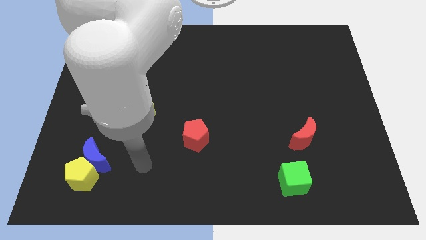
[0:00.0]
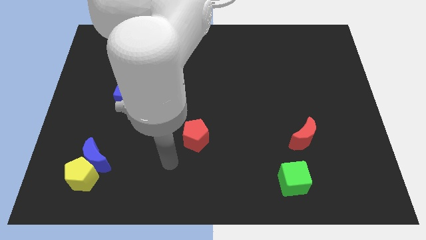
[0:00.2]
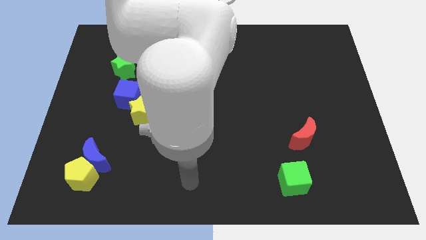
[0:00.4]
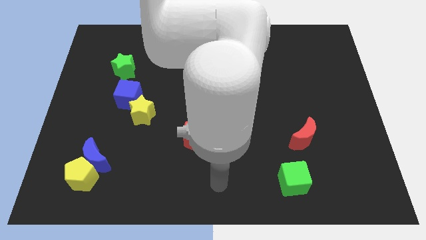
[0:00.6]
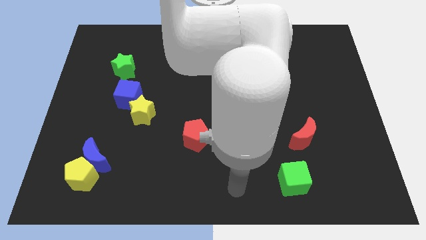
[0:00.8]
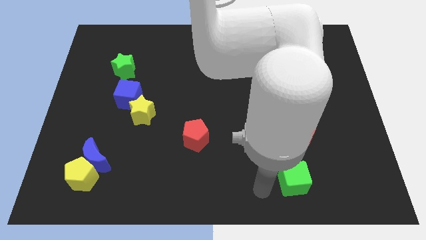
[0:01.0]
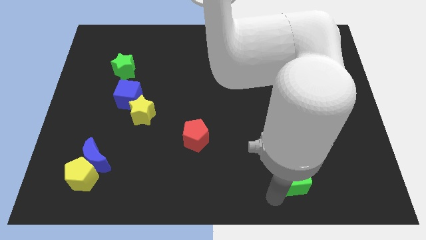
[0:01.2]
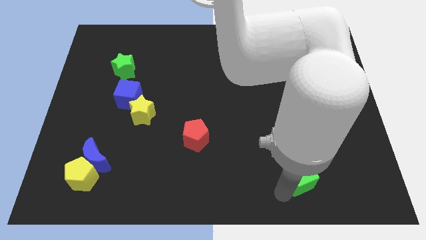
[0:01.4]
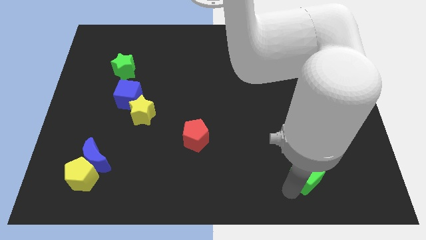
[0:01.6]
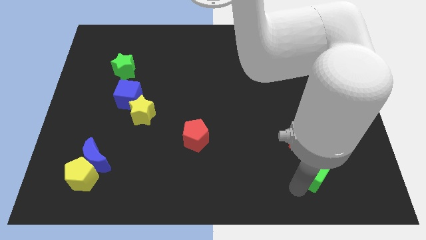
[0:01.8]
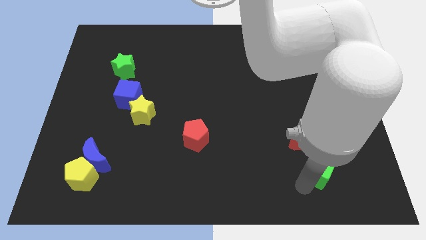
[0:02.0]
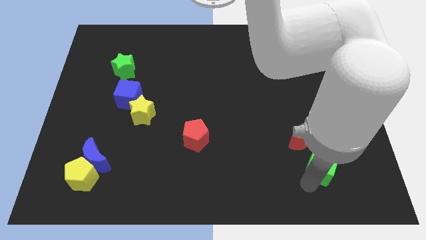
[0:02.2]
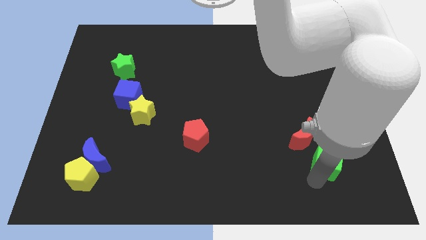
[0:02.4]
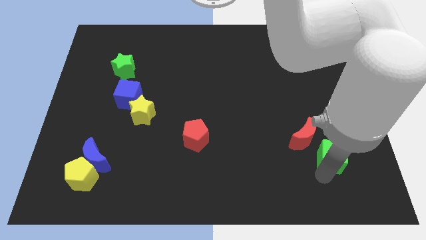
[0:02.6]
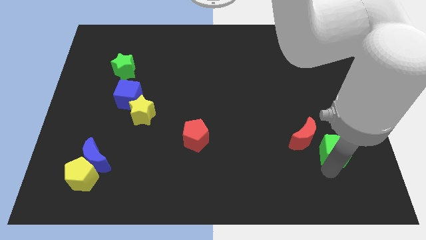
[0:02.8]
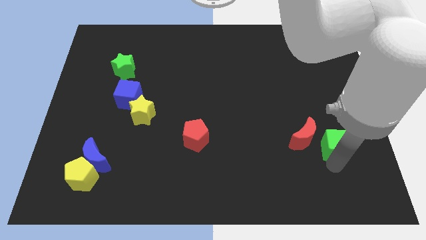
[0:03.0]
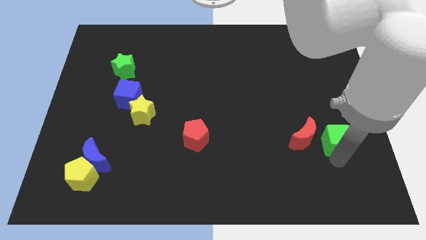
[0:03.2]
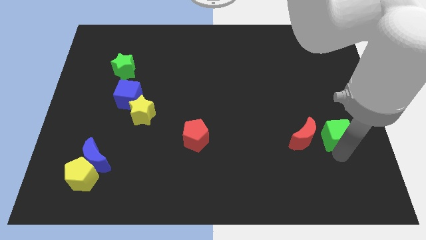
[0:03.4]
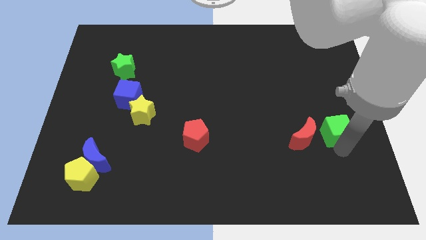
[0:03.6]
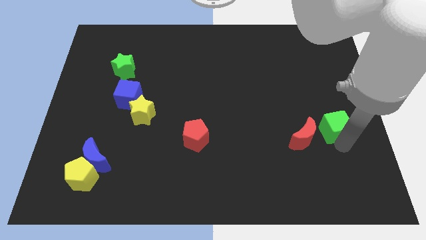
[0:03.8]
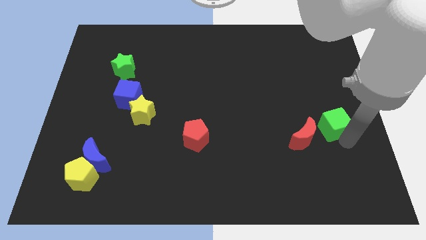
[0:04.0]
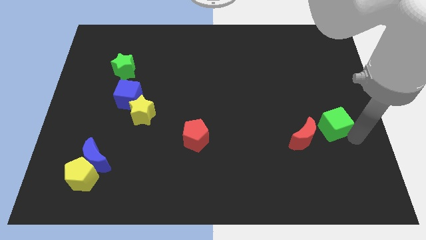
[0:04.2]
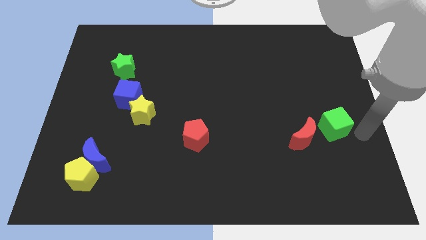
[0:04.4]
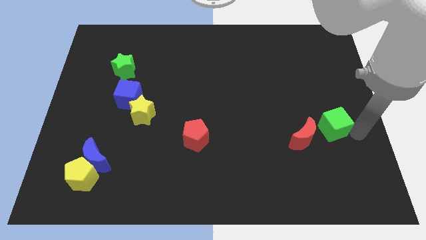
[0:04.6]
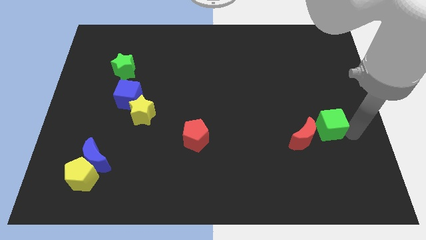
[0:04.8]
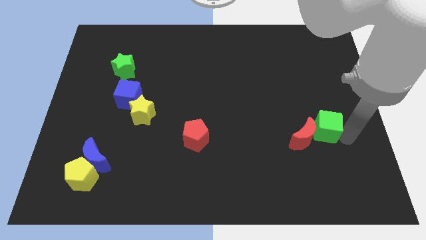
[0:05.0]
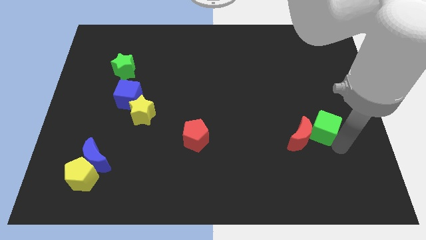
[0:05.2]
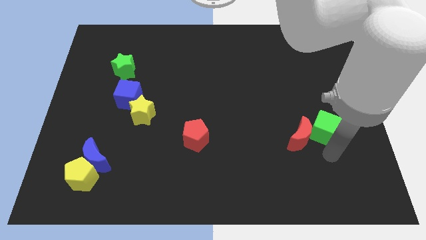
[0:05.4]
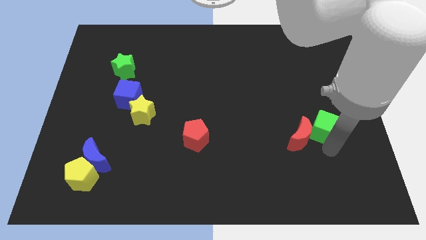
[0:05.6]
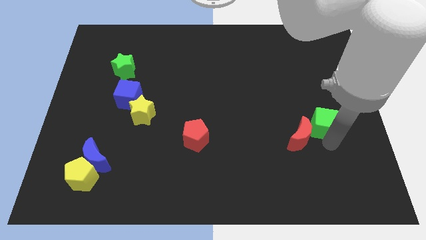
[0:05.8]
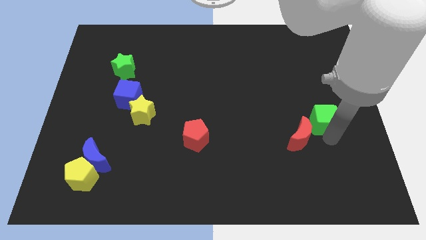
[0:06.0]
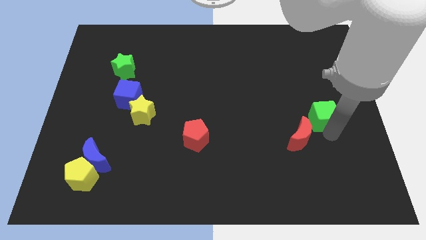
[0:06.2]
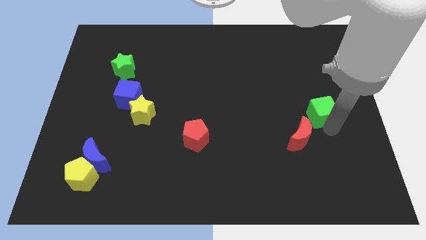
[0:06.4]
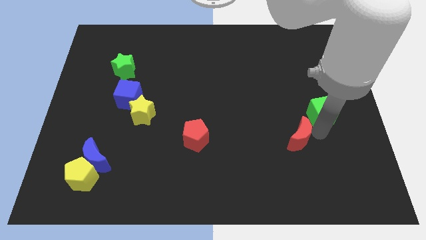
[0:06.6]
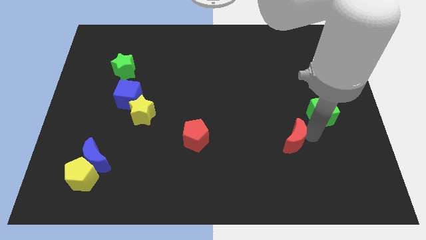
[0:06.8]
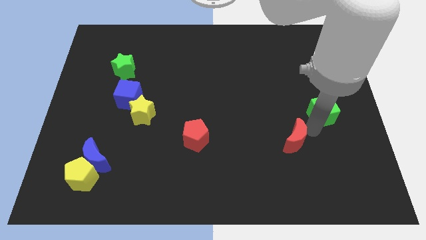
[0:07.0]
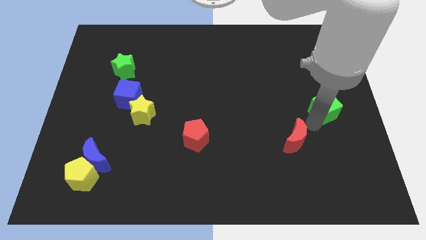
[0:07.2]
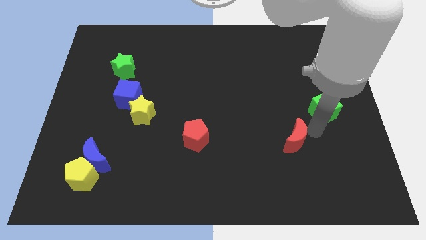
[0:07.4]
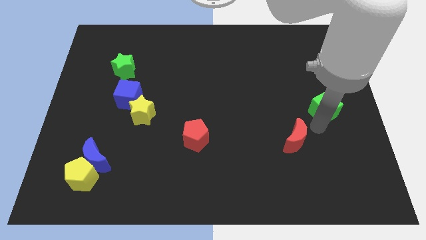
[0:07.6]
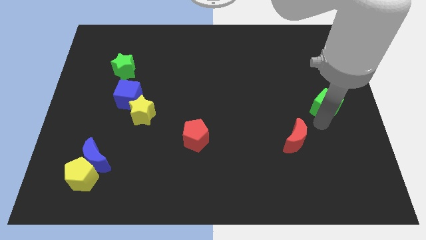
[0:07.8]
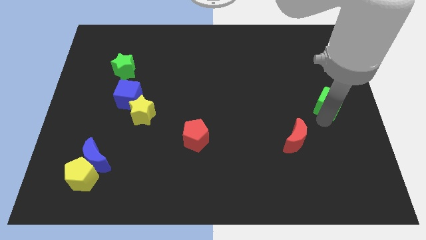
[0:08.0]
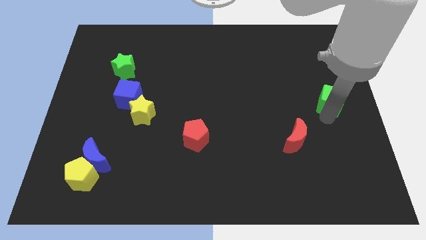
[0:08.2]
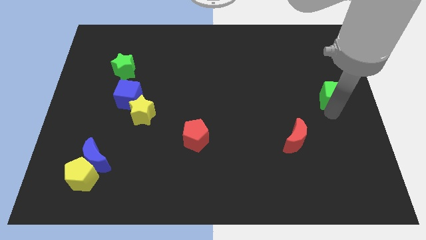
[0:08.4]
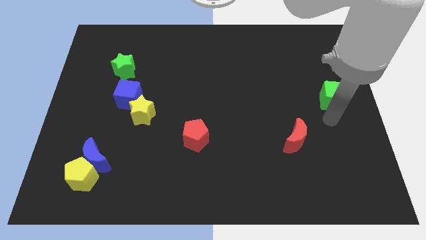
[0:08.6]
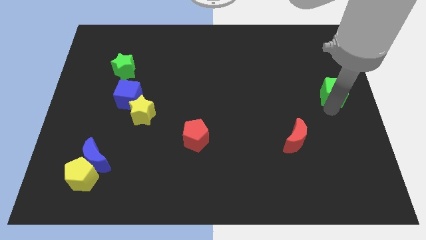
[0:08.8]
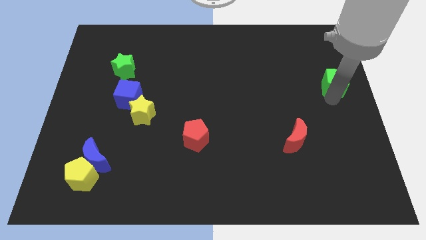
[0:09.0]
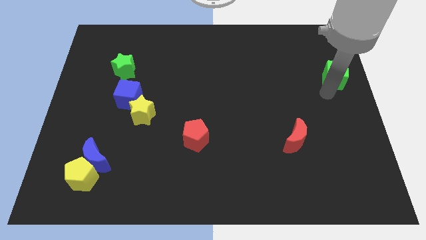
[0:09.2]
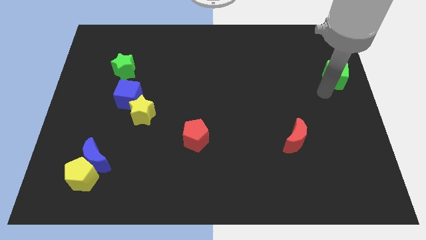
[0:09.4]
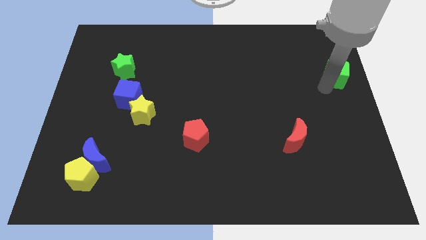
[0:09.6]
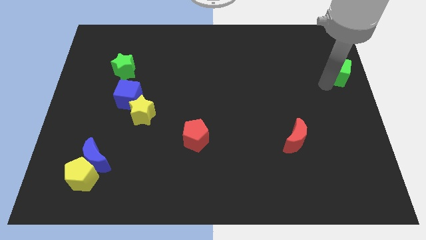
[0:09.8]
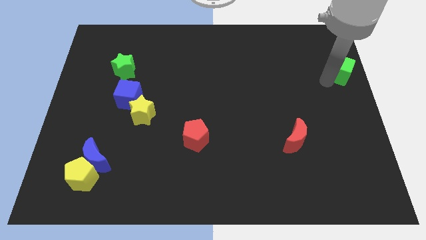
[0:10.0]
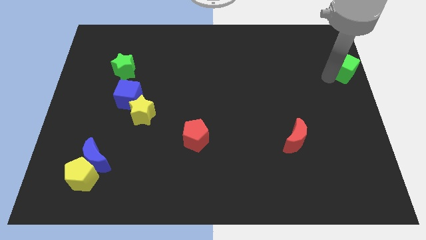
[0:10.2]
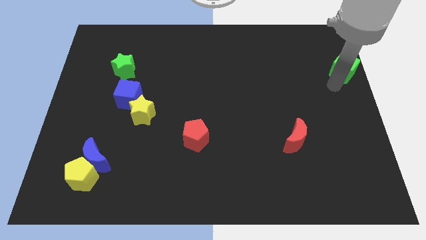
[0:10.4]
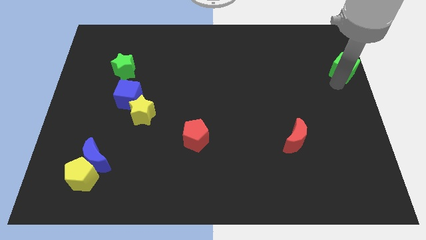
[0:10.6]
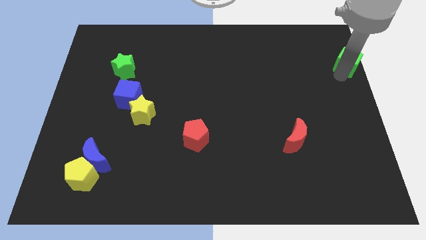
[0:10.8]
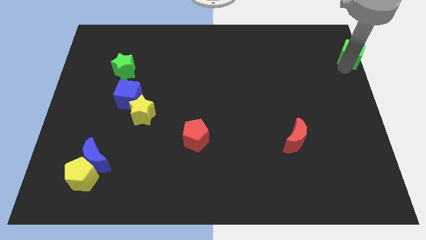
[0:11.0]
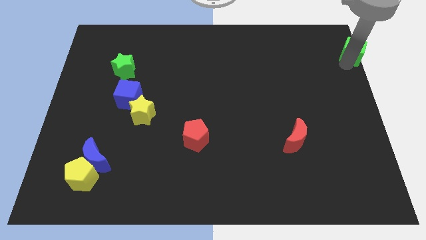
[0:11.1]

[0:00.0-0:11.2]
slide the green cube to the upper right corner
